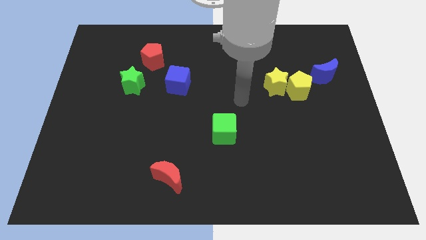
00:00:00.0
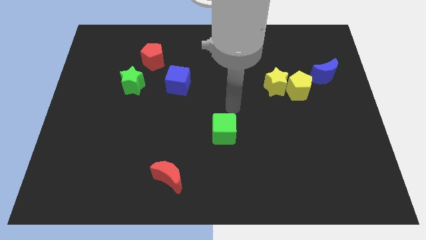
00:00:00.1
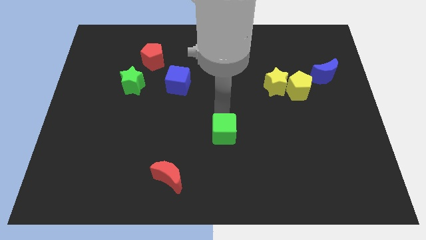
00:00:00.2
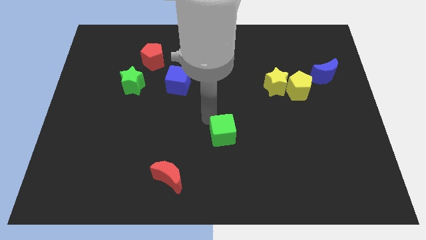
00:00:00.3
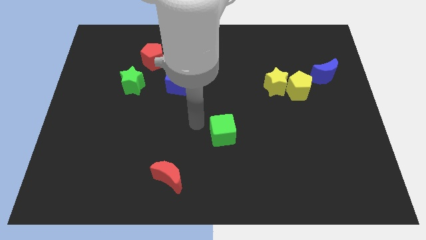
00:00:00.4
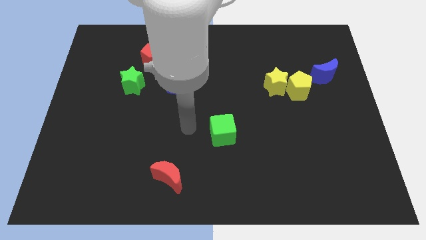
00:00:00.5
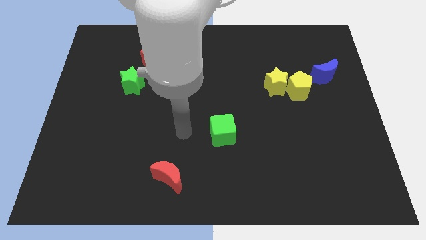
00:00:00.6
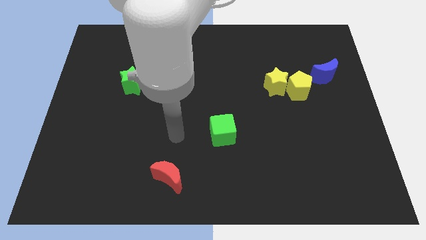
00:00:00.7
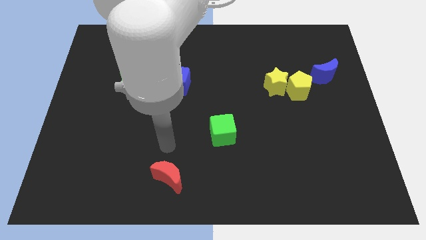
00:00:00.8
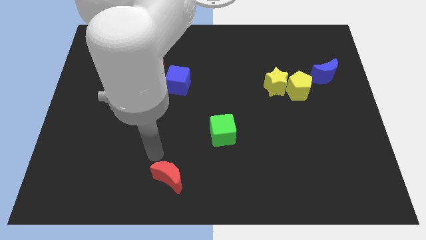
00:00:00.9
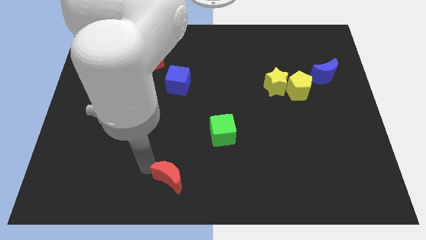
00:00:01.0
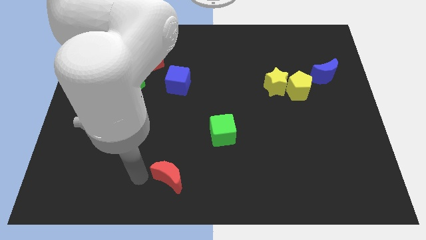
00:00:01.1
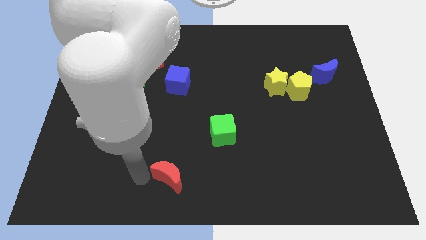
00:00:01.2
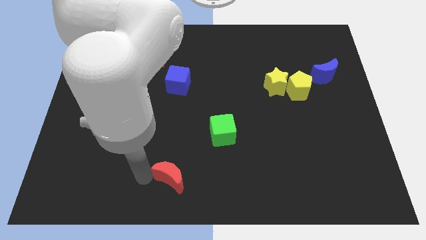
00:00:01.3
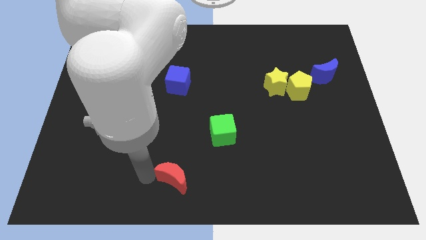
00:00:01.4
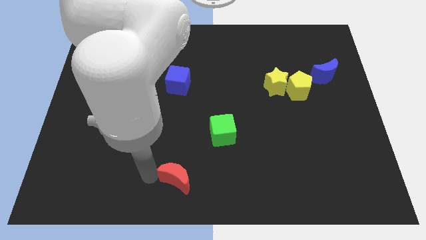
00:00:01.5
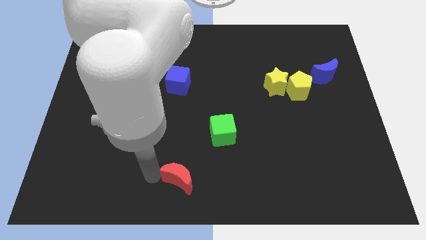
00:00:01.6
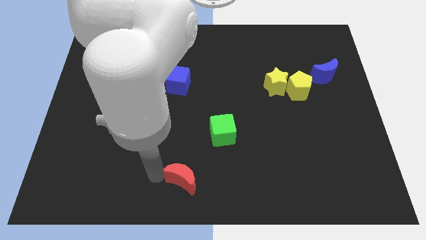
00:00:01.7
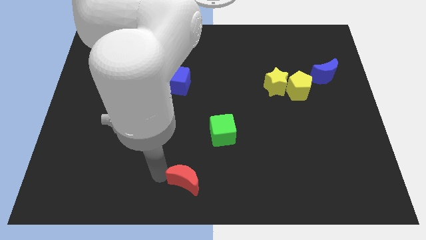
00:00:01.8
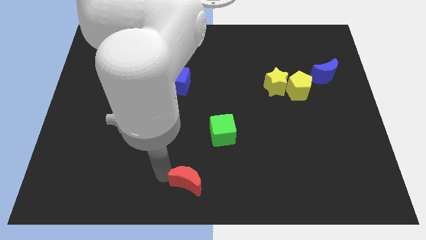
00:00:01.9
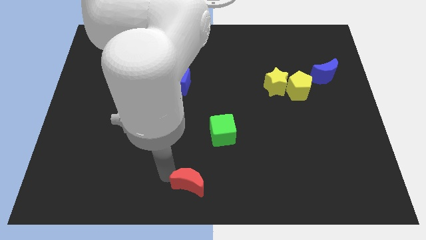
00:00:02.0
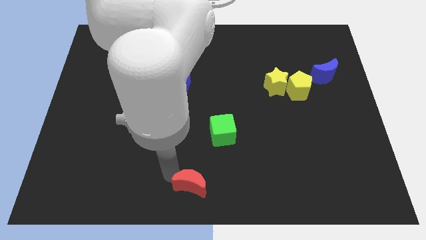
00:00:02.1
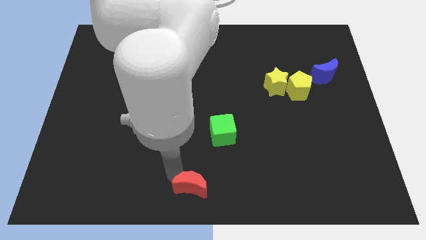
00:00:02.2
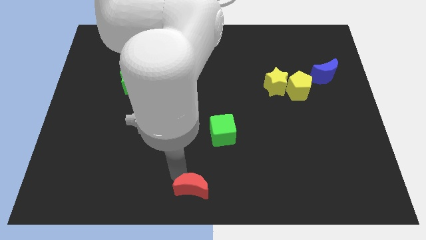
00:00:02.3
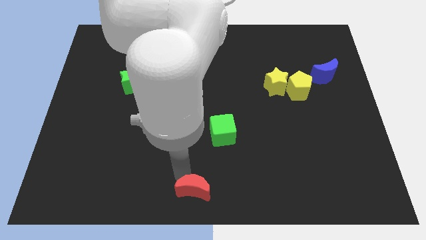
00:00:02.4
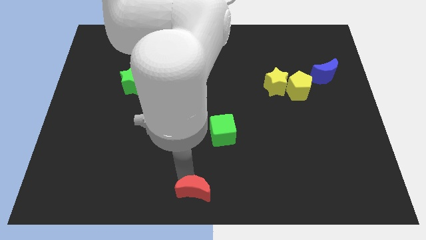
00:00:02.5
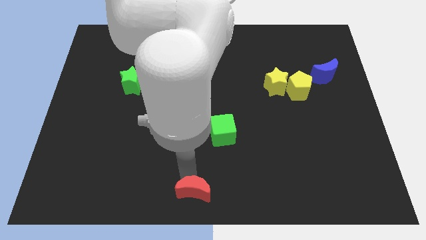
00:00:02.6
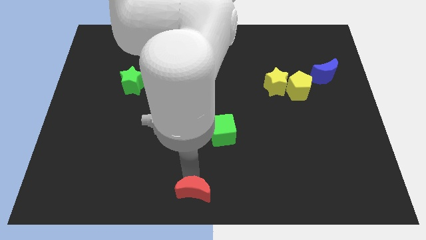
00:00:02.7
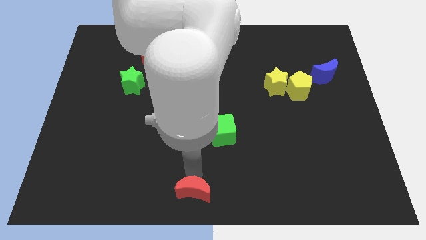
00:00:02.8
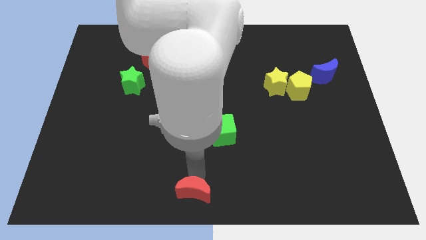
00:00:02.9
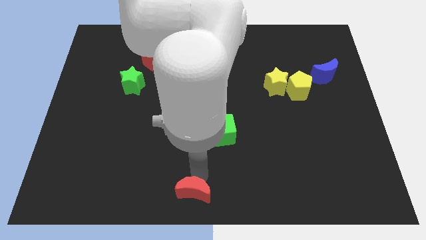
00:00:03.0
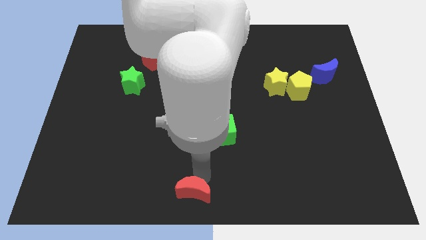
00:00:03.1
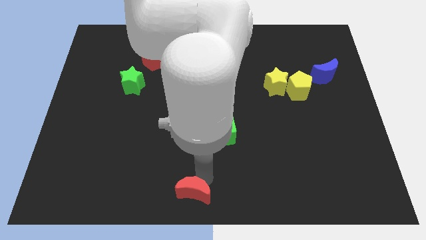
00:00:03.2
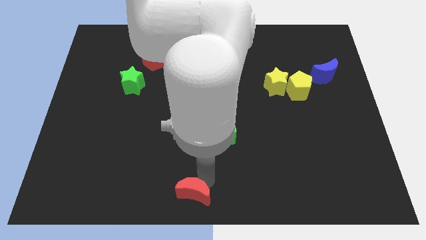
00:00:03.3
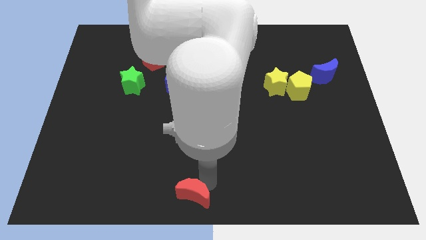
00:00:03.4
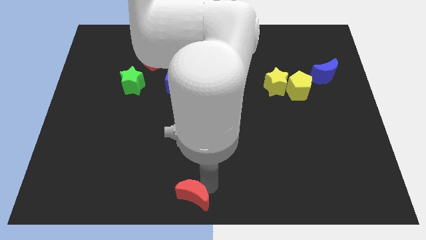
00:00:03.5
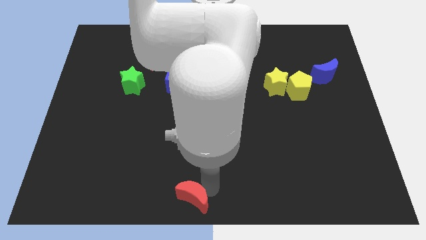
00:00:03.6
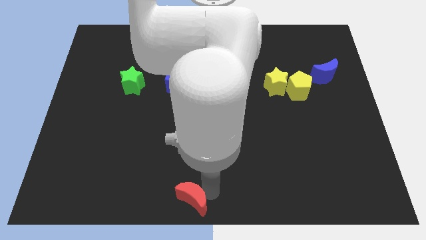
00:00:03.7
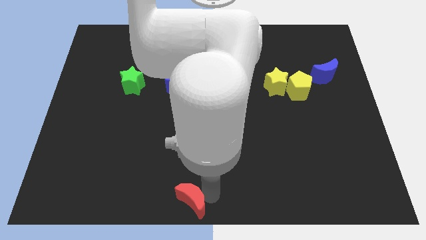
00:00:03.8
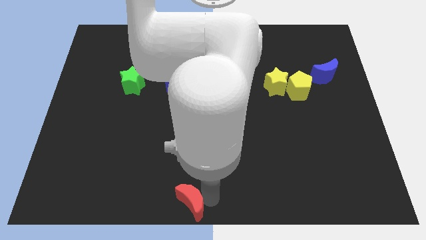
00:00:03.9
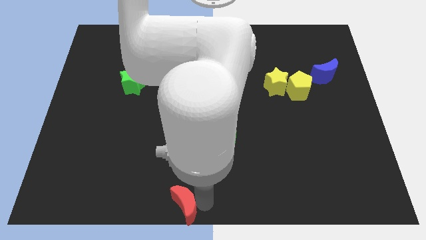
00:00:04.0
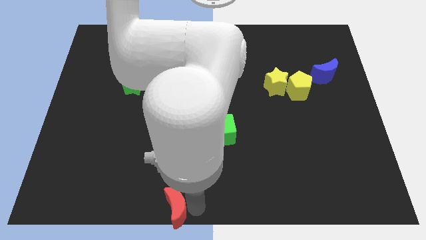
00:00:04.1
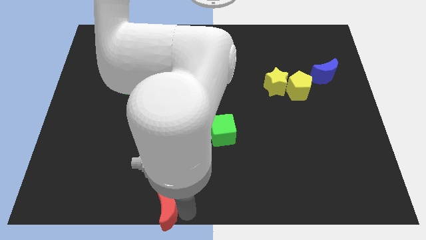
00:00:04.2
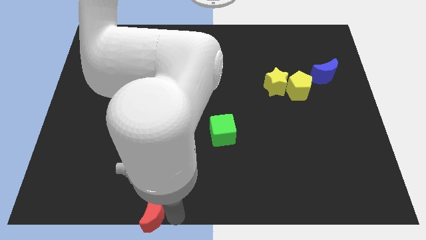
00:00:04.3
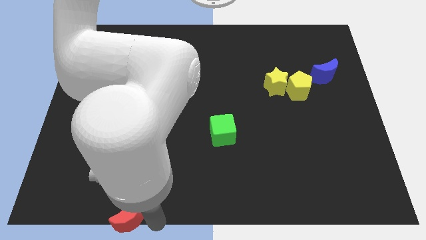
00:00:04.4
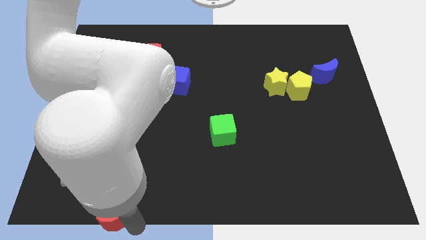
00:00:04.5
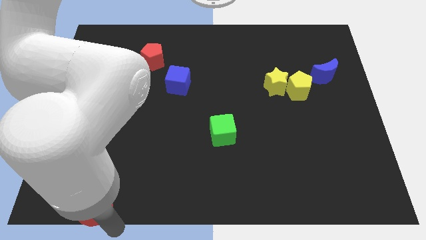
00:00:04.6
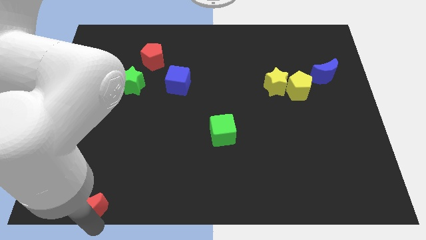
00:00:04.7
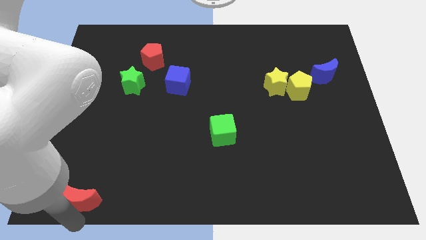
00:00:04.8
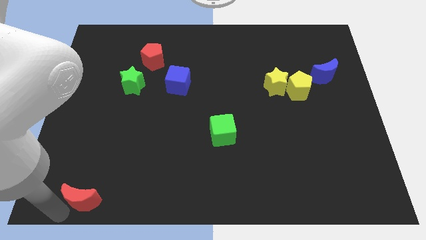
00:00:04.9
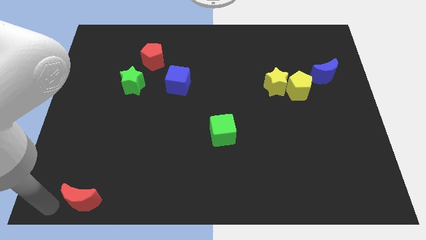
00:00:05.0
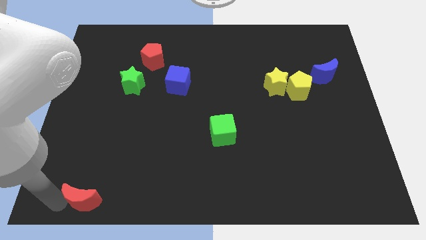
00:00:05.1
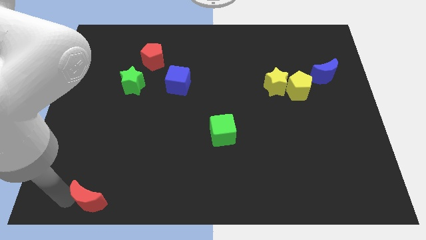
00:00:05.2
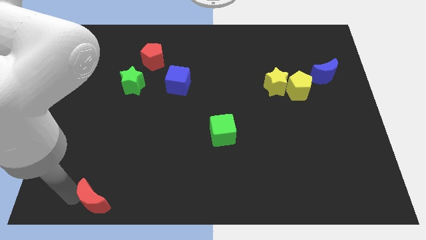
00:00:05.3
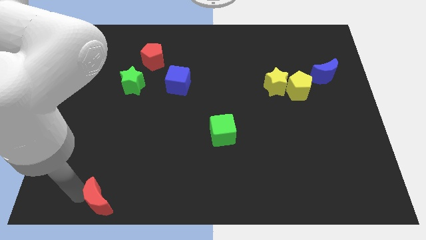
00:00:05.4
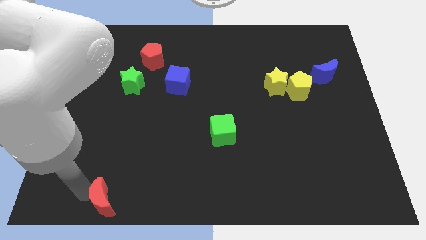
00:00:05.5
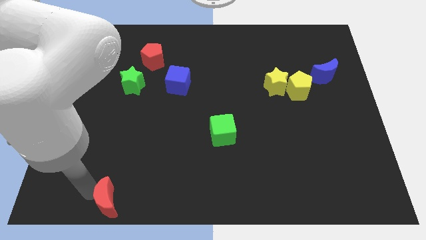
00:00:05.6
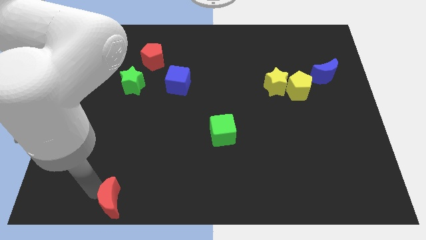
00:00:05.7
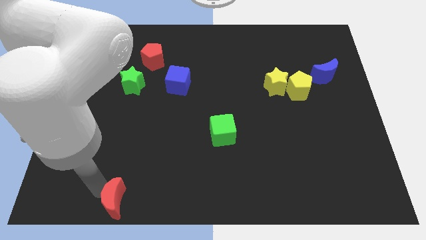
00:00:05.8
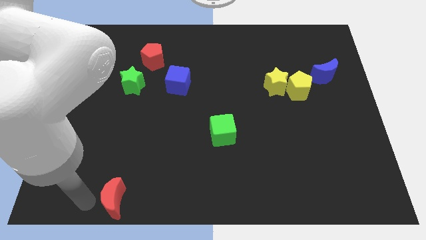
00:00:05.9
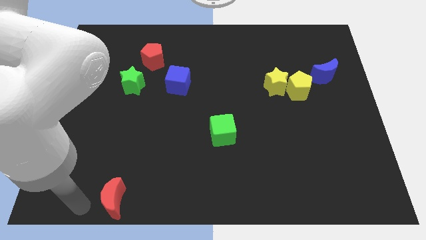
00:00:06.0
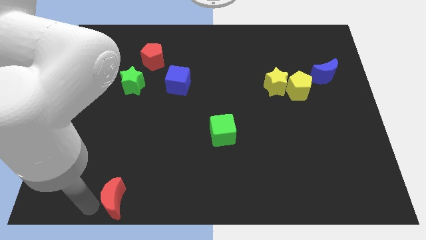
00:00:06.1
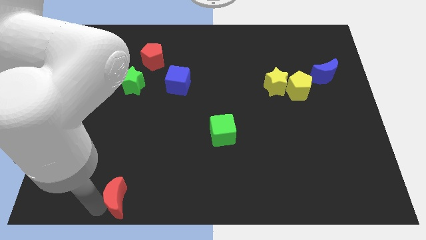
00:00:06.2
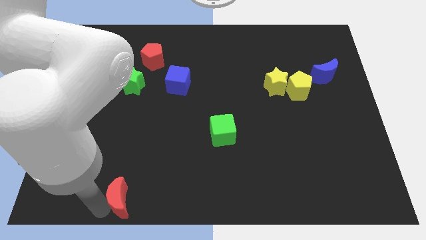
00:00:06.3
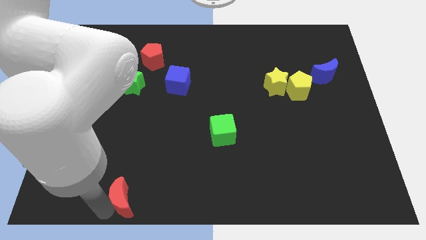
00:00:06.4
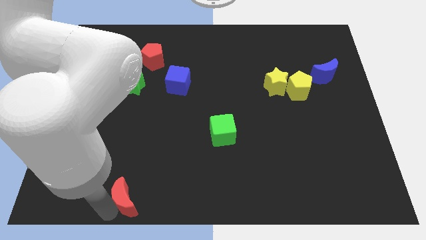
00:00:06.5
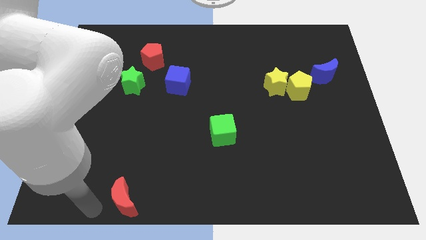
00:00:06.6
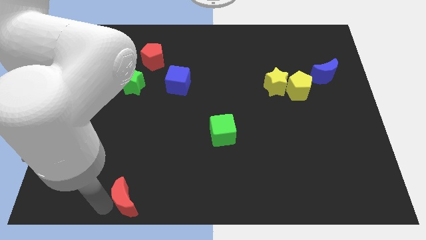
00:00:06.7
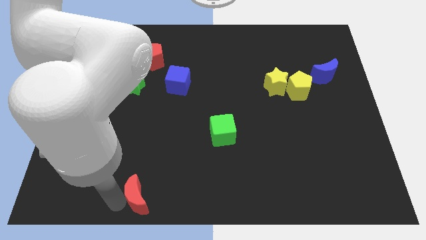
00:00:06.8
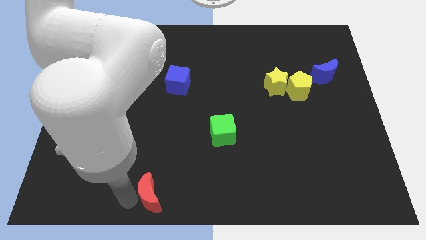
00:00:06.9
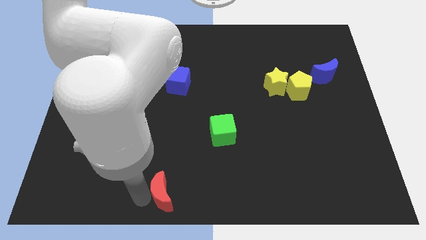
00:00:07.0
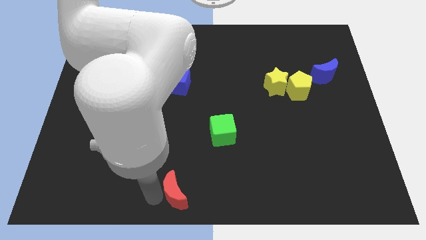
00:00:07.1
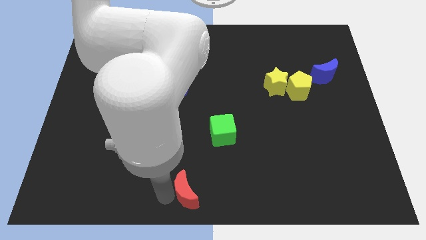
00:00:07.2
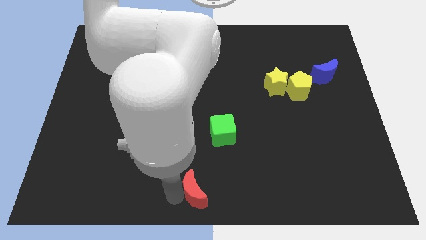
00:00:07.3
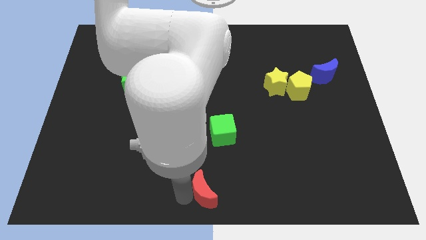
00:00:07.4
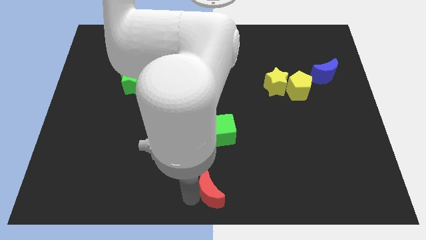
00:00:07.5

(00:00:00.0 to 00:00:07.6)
slightly move the red moon to the right
